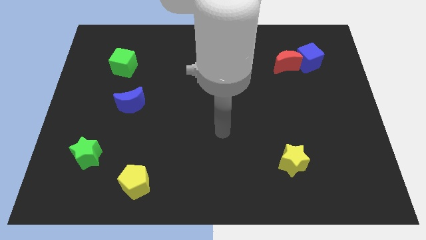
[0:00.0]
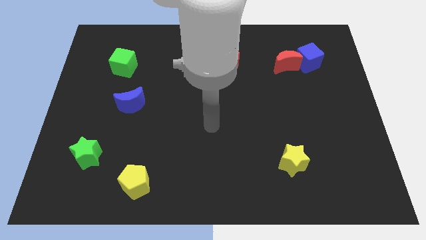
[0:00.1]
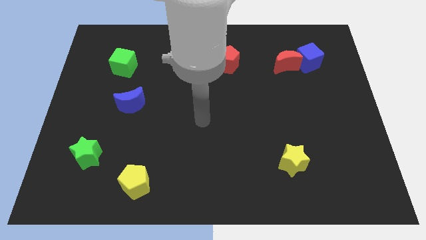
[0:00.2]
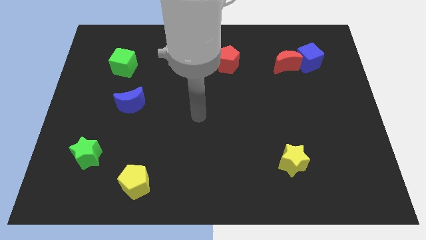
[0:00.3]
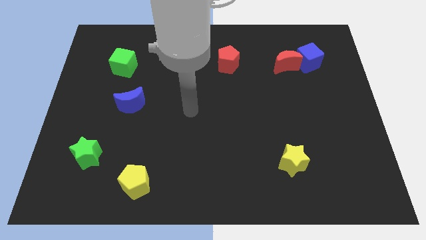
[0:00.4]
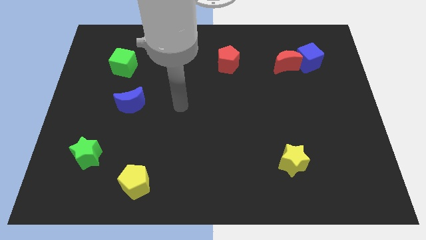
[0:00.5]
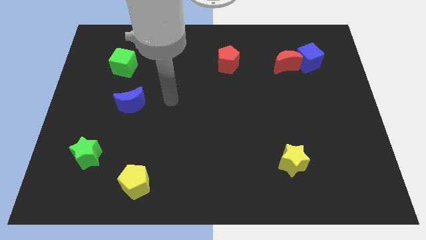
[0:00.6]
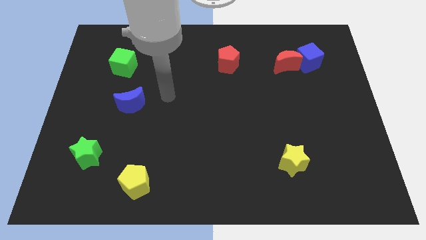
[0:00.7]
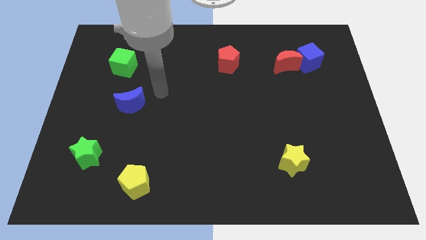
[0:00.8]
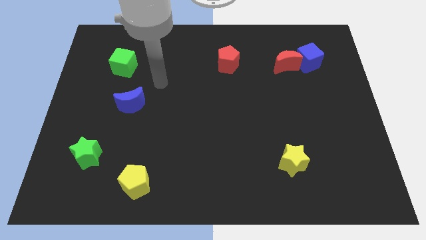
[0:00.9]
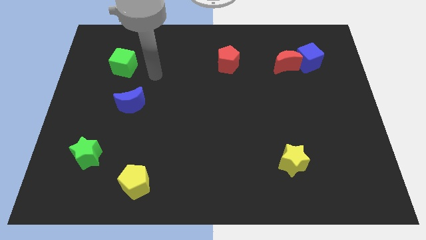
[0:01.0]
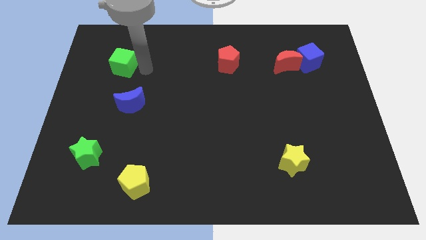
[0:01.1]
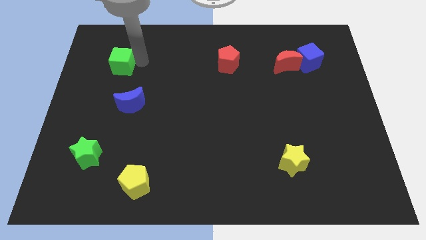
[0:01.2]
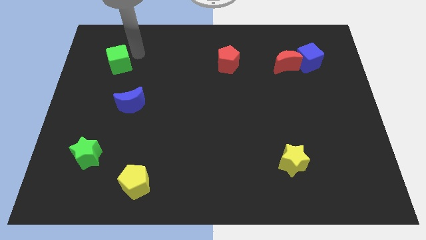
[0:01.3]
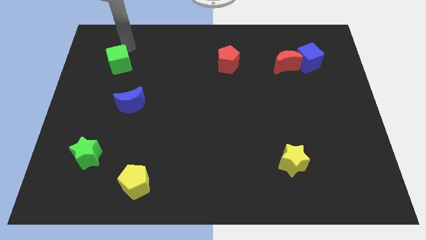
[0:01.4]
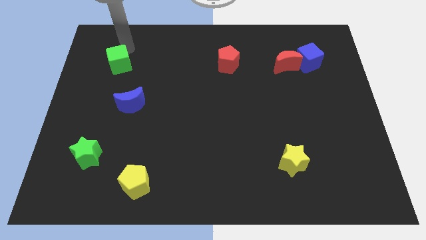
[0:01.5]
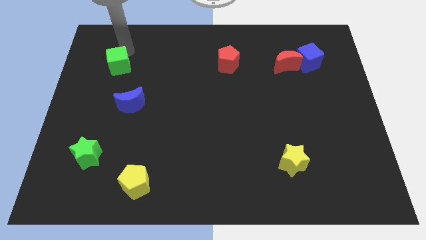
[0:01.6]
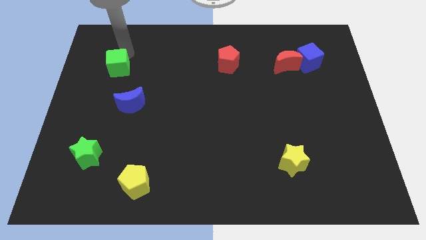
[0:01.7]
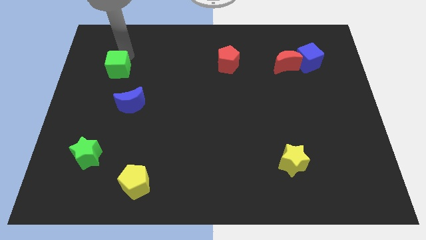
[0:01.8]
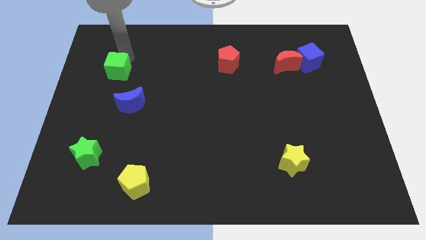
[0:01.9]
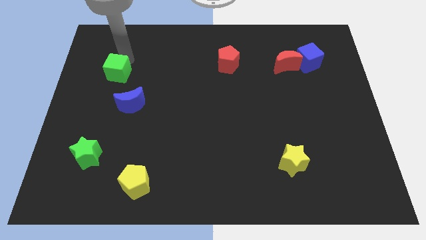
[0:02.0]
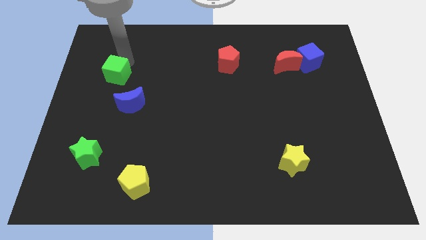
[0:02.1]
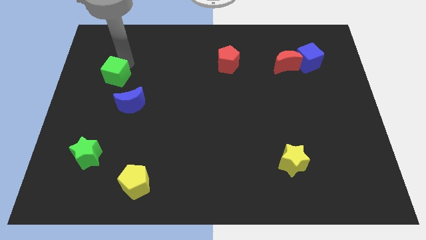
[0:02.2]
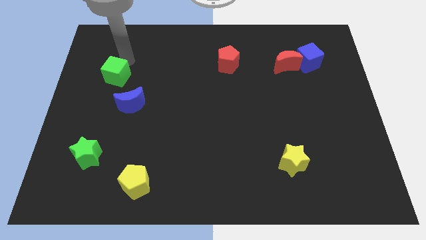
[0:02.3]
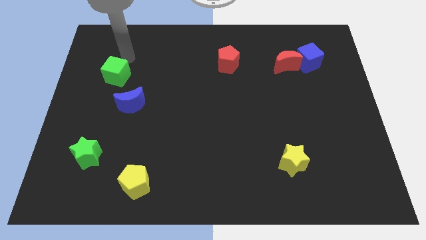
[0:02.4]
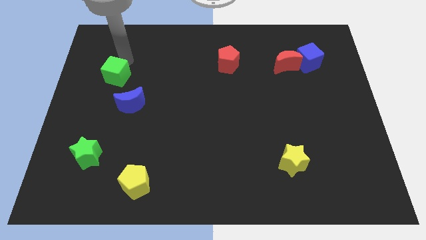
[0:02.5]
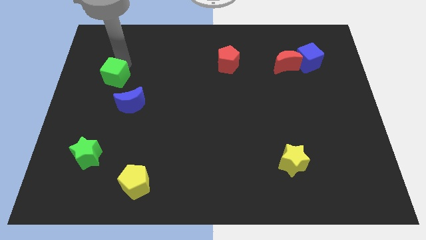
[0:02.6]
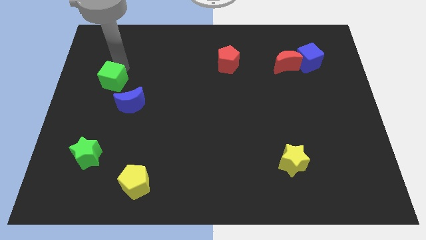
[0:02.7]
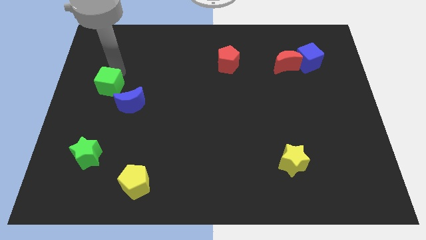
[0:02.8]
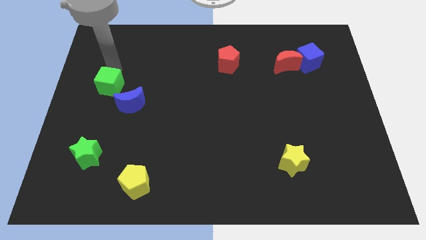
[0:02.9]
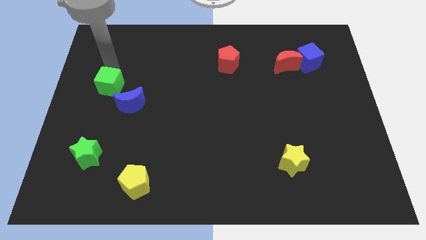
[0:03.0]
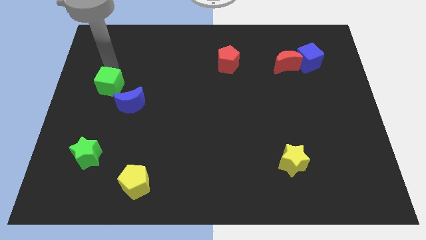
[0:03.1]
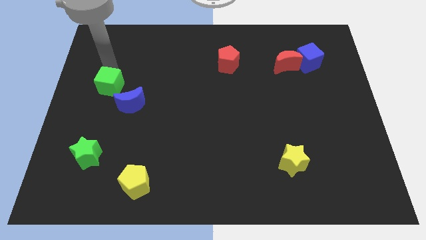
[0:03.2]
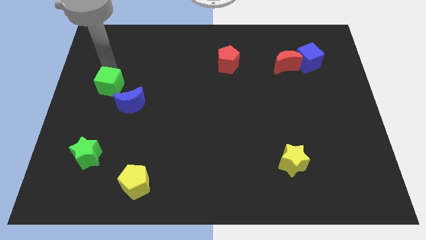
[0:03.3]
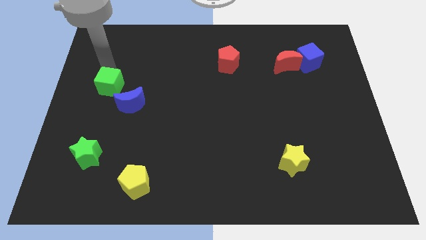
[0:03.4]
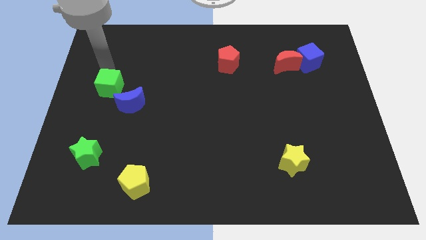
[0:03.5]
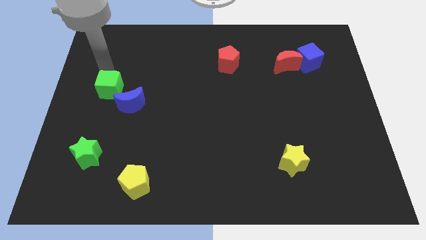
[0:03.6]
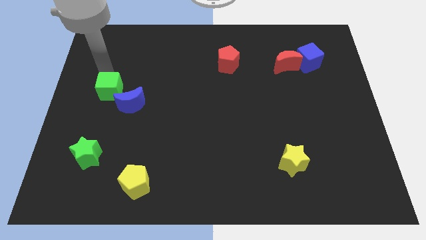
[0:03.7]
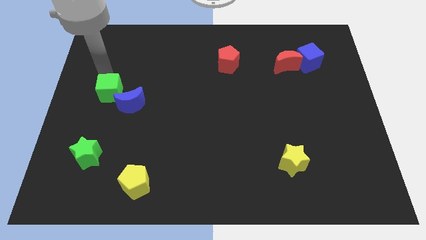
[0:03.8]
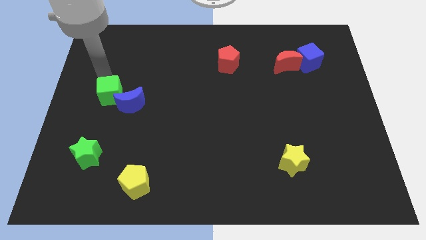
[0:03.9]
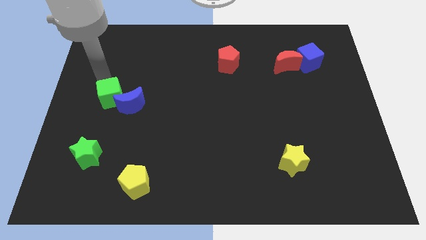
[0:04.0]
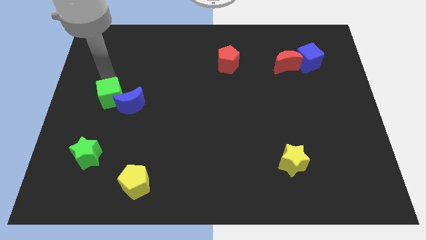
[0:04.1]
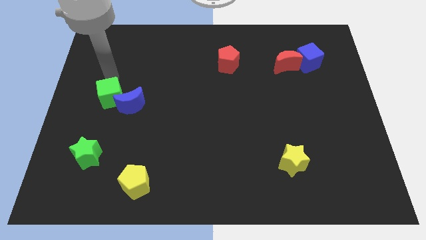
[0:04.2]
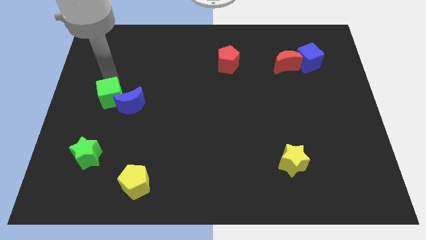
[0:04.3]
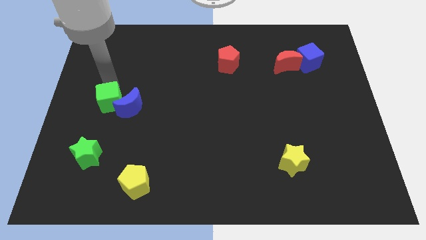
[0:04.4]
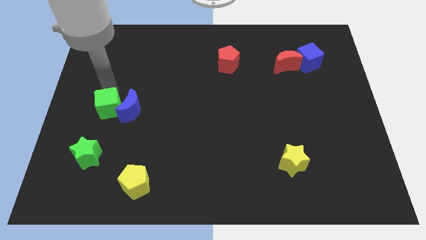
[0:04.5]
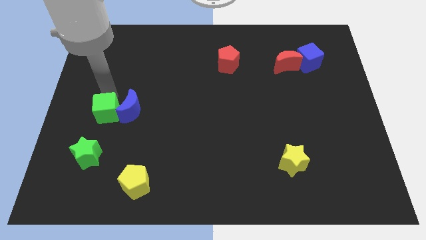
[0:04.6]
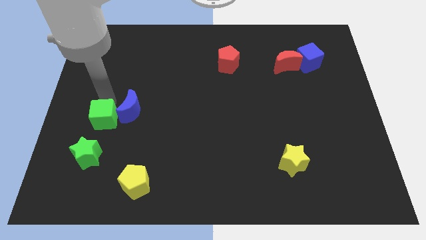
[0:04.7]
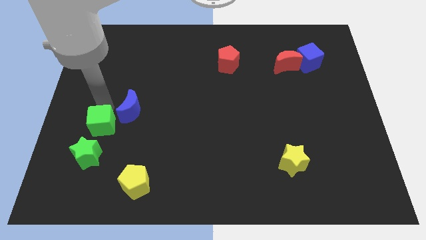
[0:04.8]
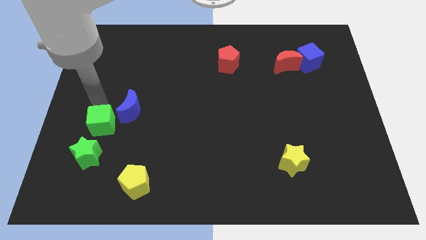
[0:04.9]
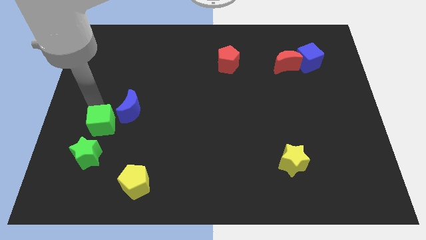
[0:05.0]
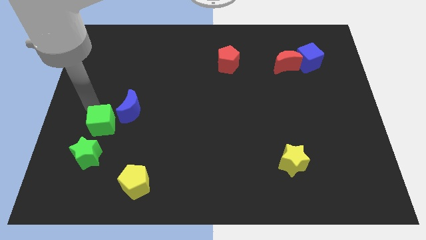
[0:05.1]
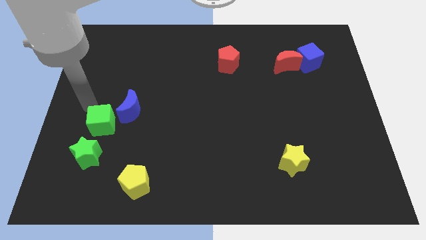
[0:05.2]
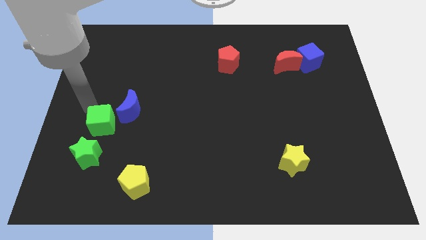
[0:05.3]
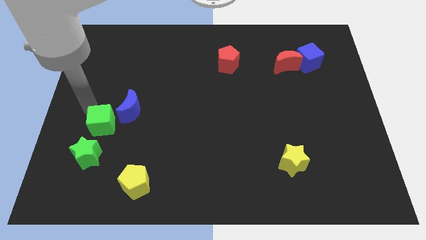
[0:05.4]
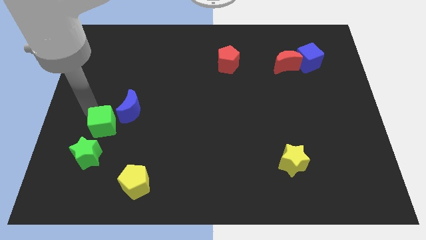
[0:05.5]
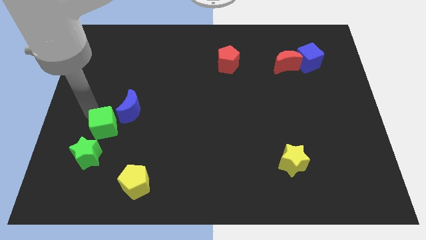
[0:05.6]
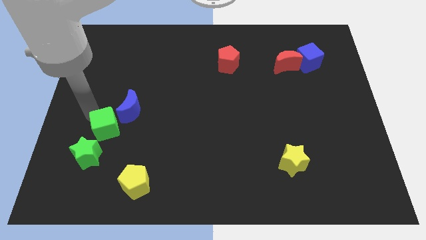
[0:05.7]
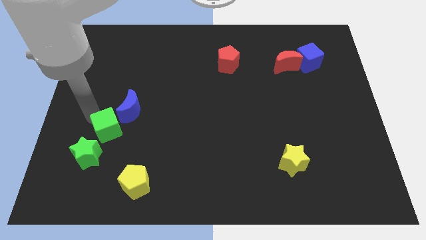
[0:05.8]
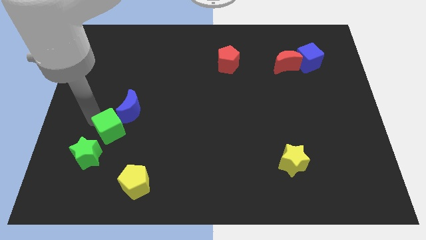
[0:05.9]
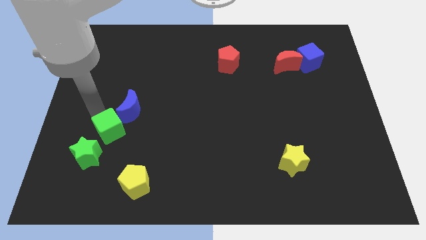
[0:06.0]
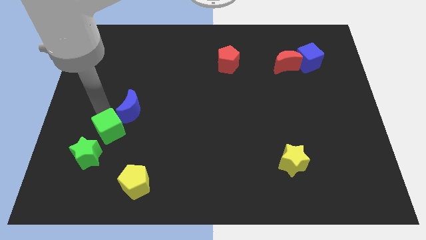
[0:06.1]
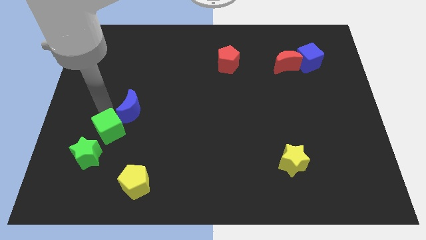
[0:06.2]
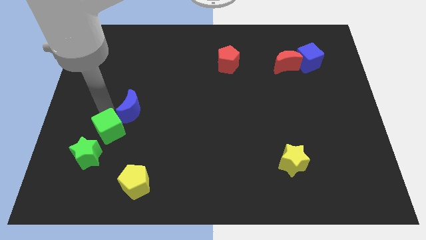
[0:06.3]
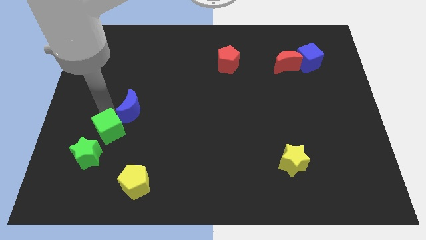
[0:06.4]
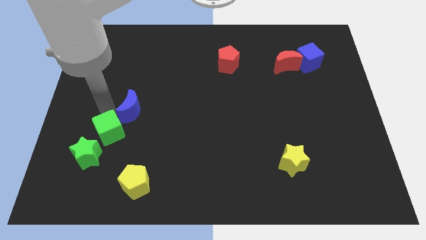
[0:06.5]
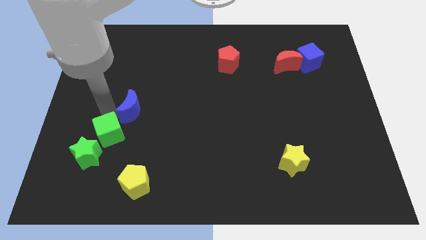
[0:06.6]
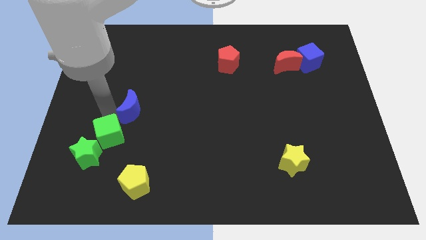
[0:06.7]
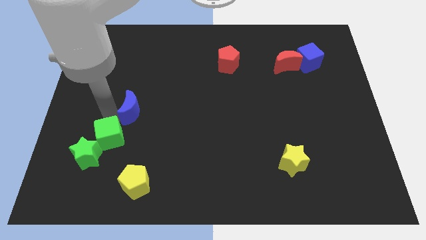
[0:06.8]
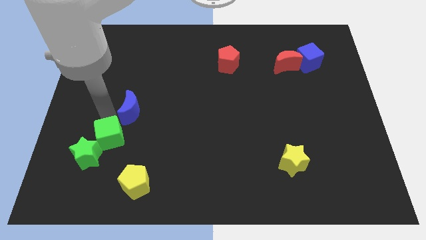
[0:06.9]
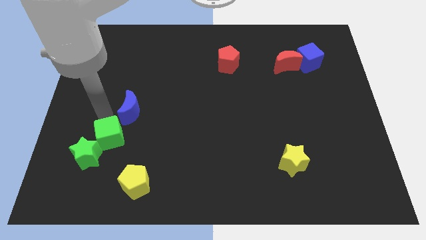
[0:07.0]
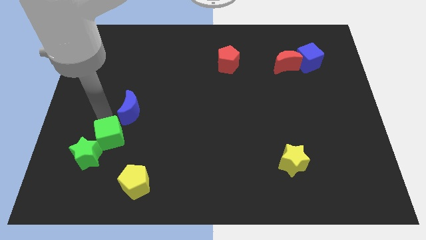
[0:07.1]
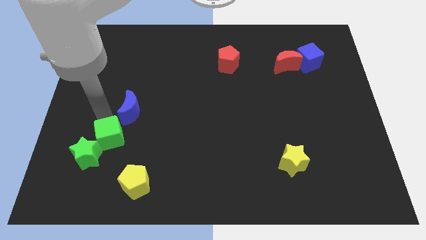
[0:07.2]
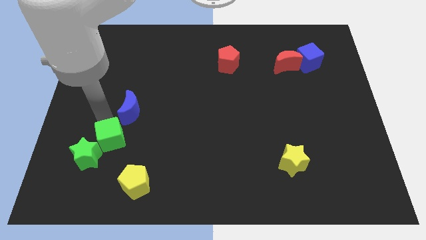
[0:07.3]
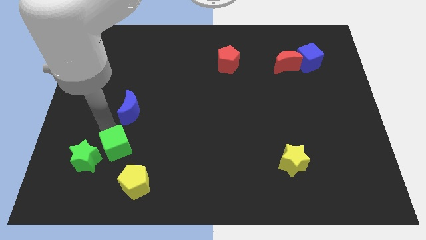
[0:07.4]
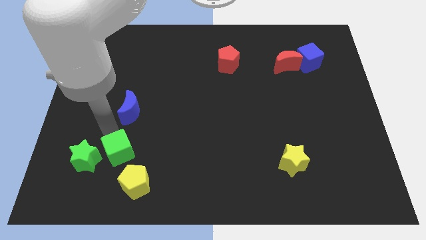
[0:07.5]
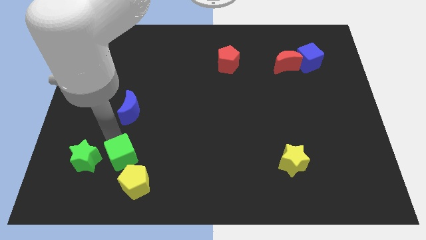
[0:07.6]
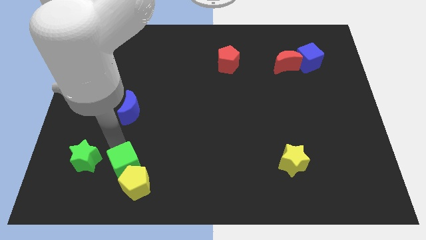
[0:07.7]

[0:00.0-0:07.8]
slide the green cube close to the yellow pentagon
